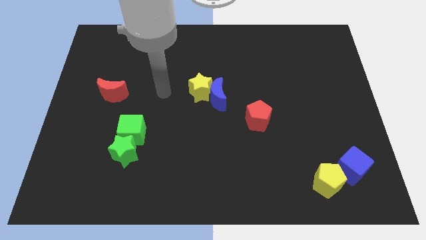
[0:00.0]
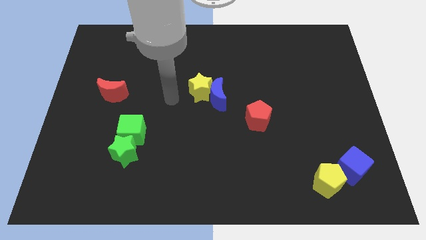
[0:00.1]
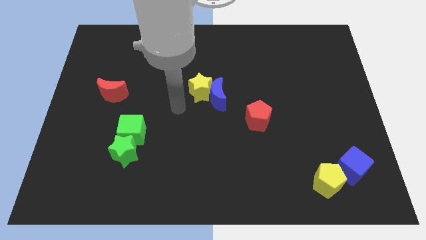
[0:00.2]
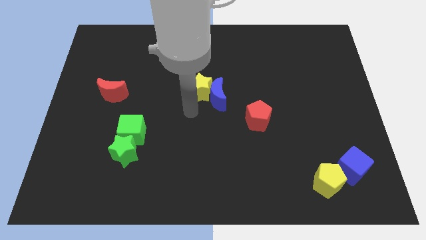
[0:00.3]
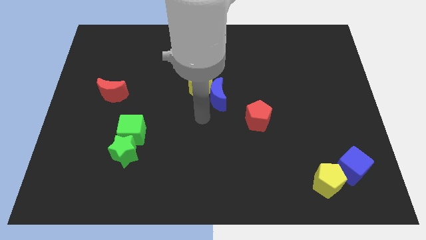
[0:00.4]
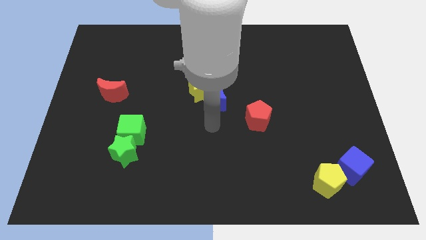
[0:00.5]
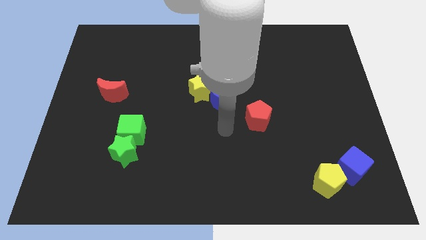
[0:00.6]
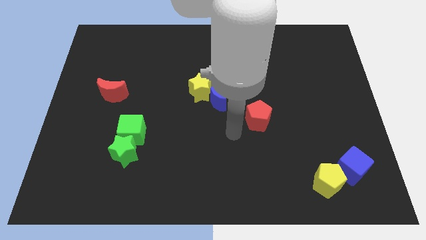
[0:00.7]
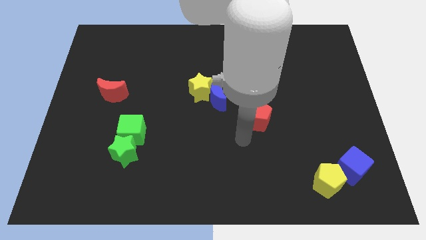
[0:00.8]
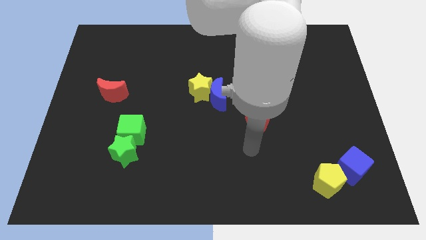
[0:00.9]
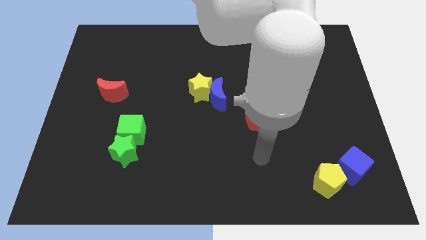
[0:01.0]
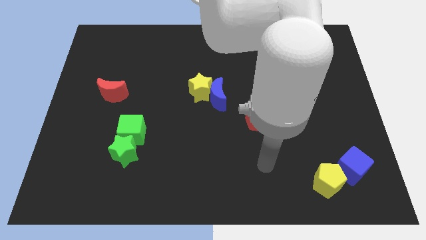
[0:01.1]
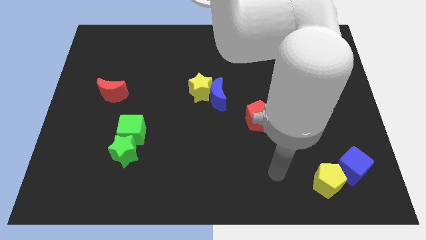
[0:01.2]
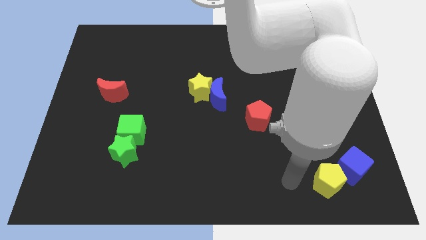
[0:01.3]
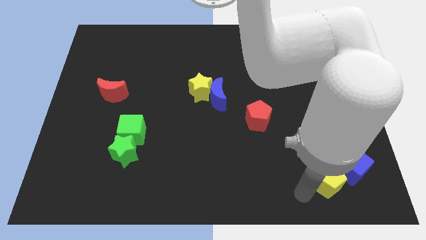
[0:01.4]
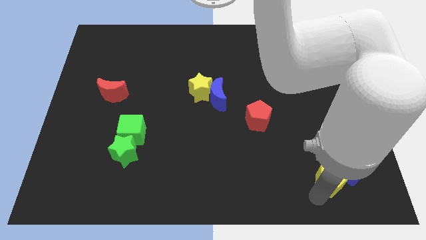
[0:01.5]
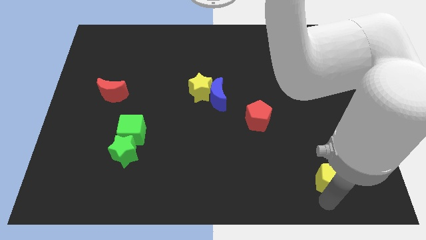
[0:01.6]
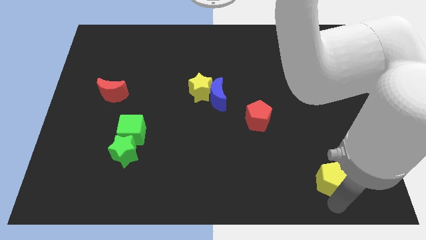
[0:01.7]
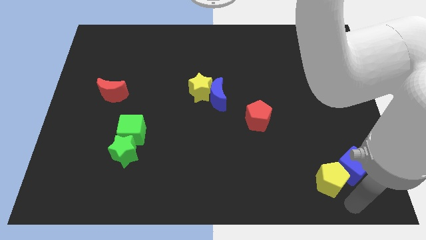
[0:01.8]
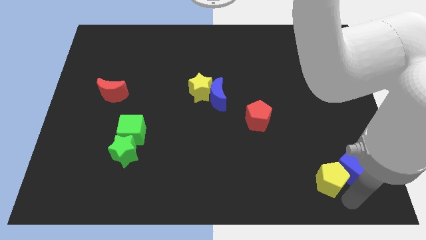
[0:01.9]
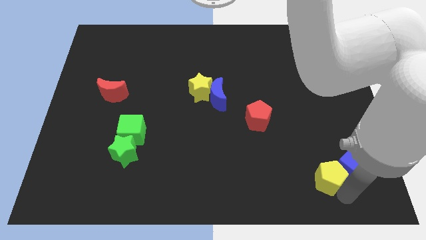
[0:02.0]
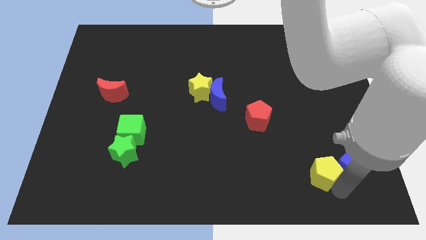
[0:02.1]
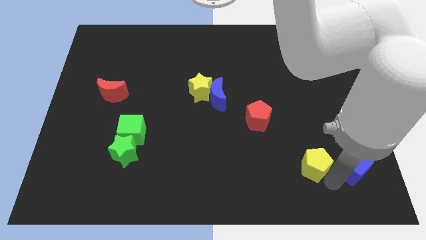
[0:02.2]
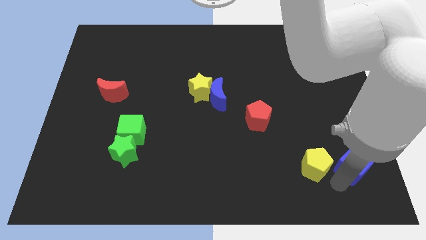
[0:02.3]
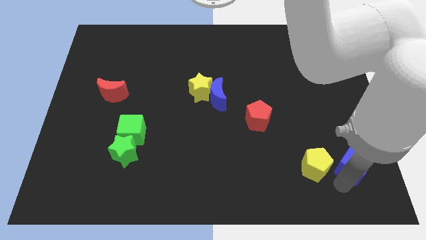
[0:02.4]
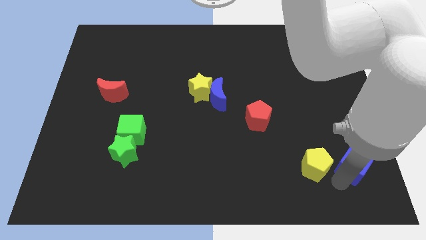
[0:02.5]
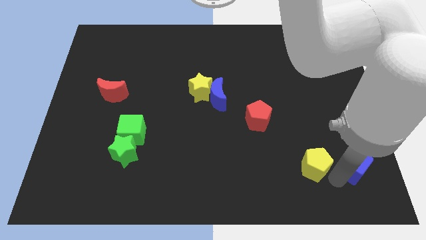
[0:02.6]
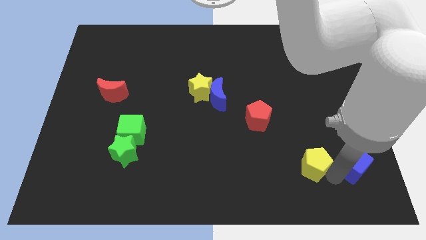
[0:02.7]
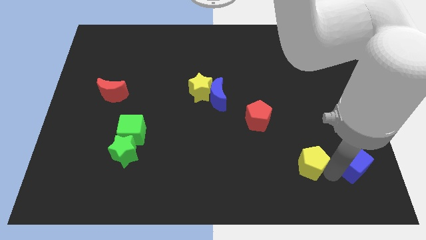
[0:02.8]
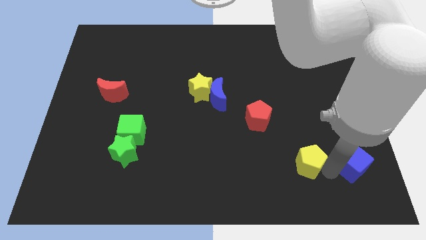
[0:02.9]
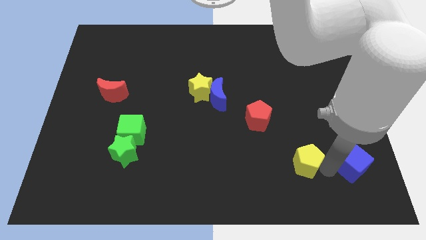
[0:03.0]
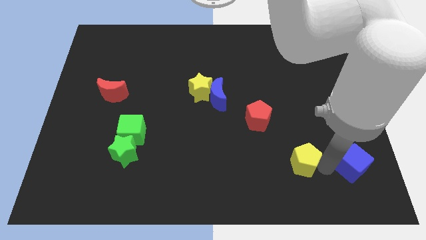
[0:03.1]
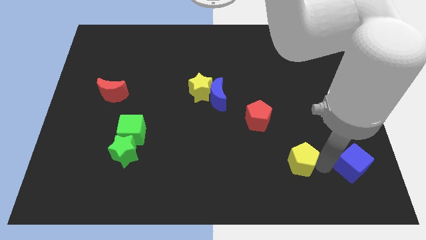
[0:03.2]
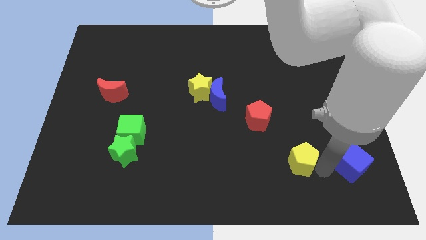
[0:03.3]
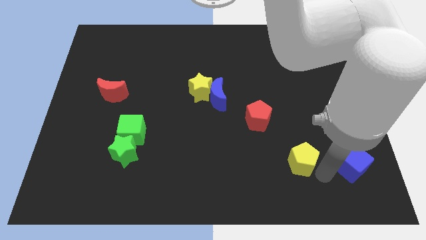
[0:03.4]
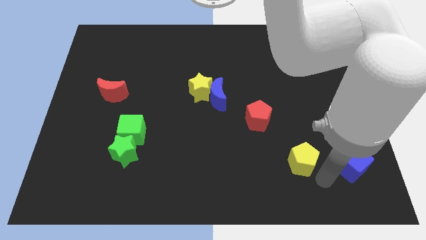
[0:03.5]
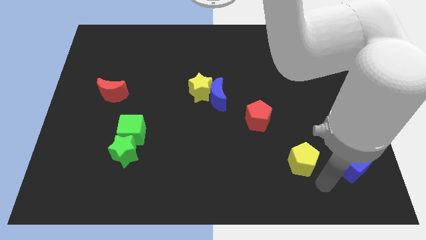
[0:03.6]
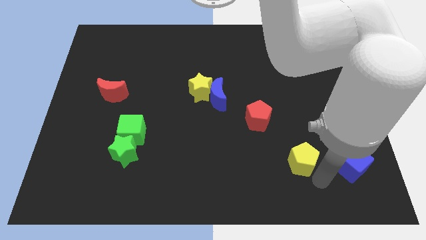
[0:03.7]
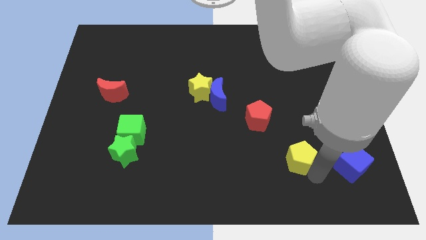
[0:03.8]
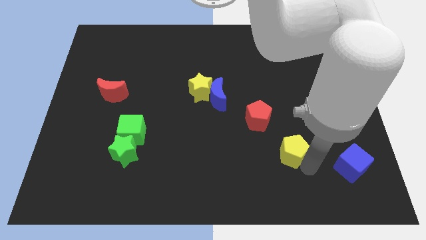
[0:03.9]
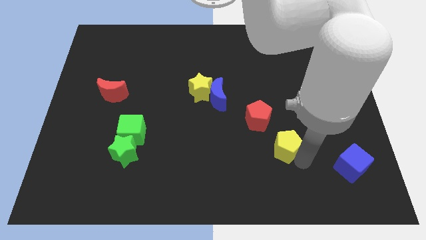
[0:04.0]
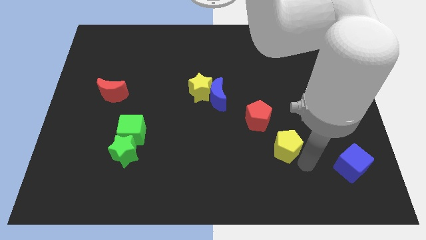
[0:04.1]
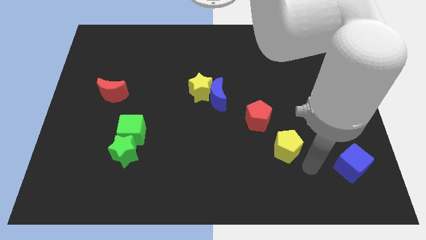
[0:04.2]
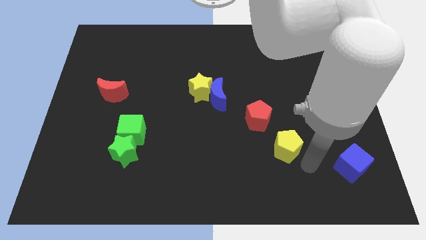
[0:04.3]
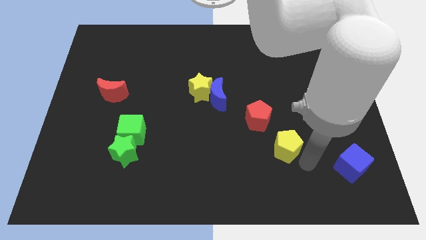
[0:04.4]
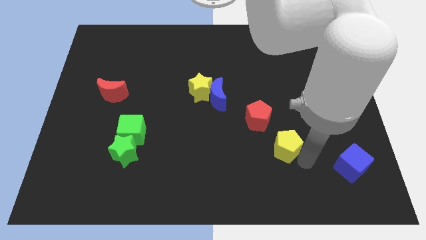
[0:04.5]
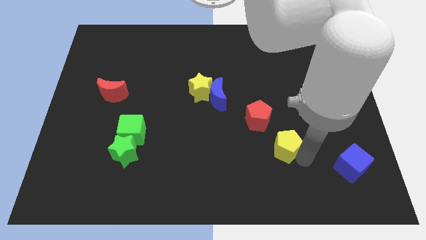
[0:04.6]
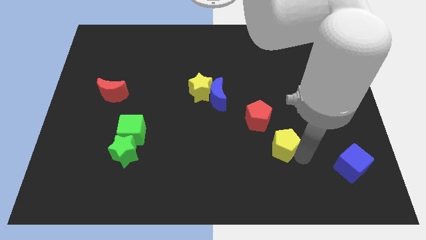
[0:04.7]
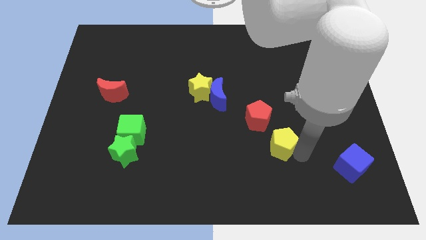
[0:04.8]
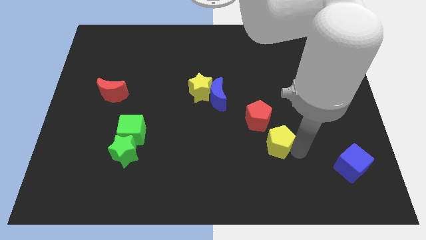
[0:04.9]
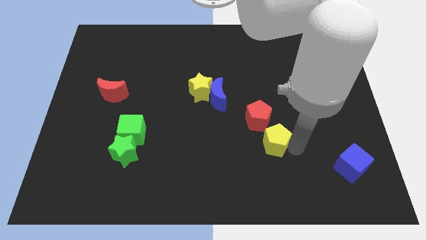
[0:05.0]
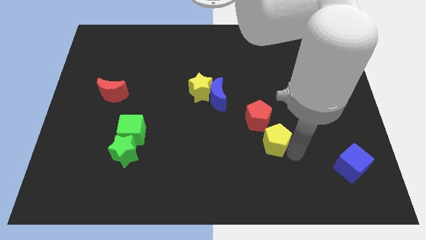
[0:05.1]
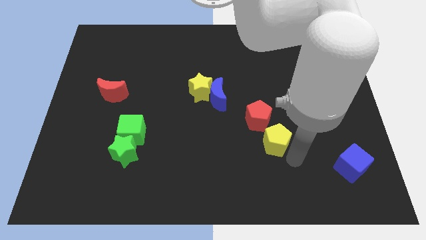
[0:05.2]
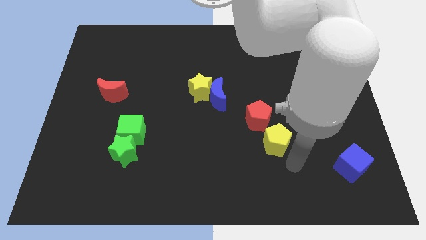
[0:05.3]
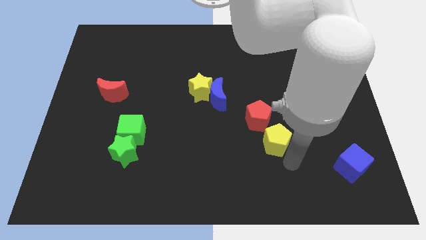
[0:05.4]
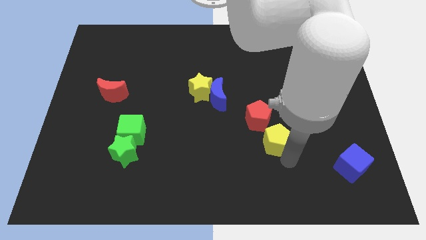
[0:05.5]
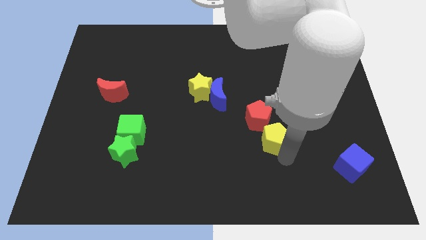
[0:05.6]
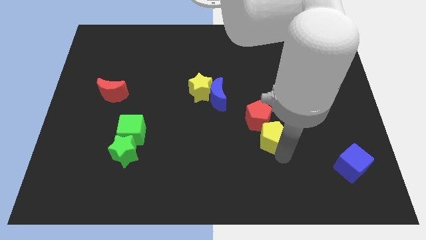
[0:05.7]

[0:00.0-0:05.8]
move the yellow pentagon close to the red pentagon
